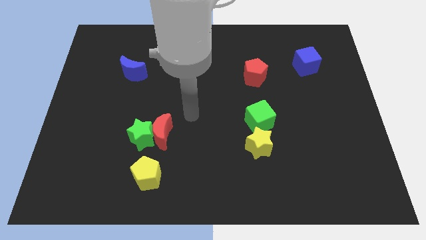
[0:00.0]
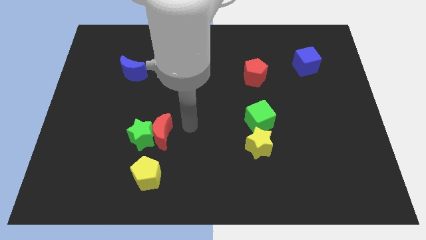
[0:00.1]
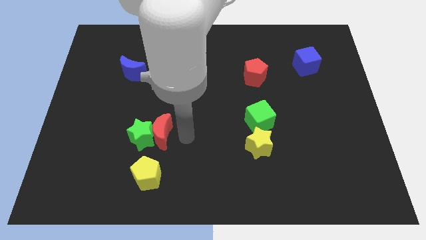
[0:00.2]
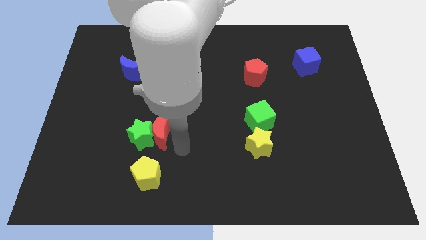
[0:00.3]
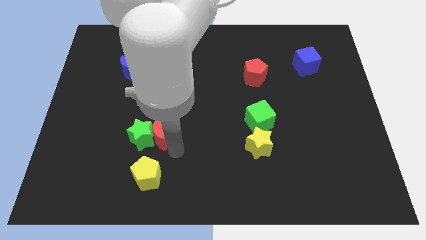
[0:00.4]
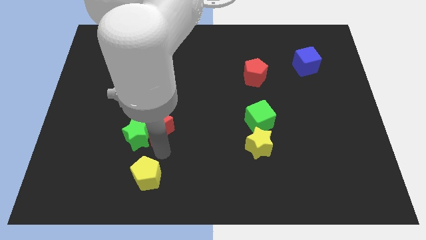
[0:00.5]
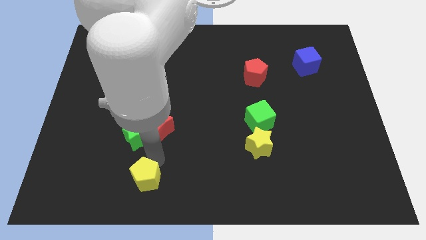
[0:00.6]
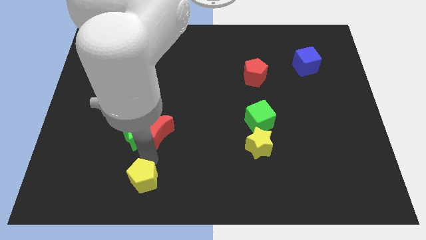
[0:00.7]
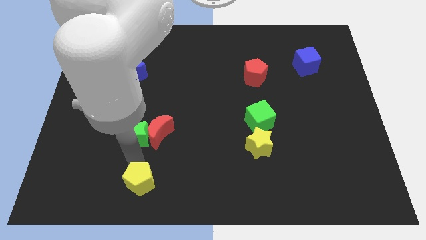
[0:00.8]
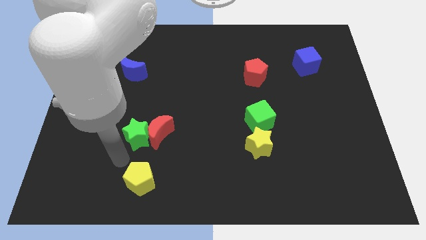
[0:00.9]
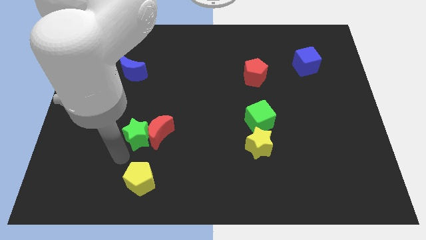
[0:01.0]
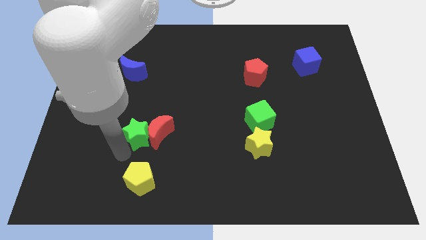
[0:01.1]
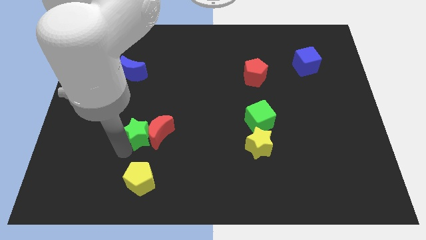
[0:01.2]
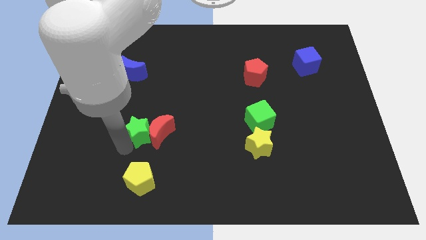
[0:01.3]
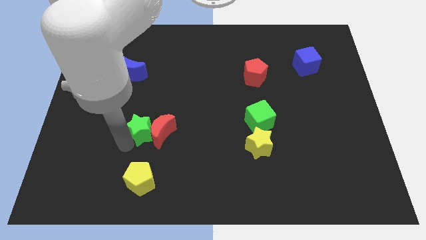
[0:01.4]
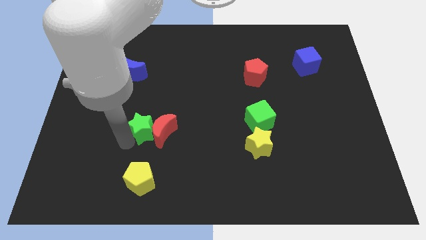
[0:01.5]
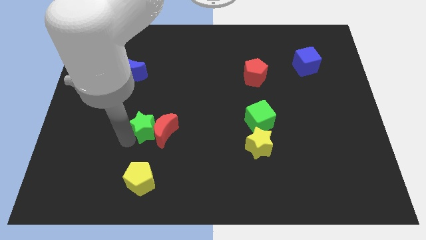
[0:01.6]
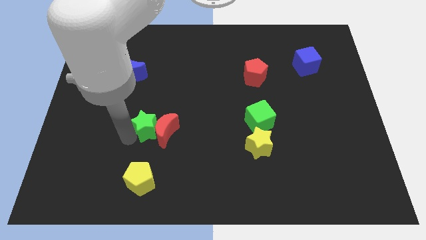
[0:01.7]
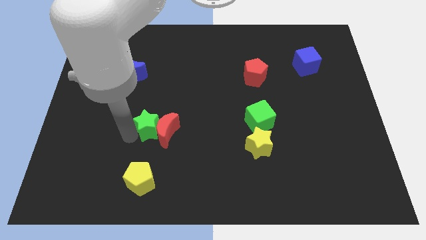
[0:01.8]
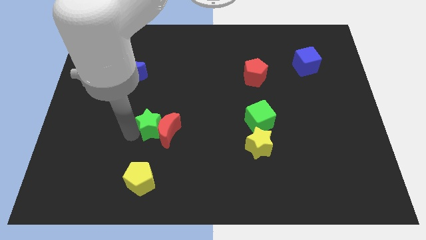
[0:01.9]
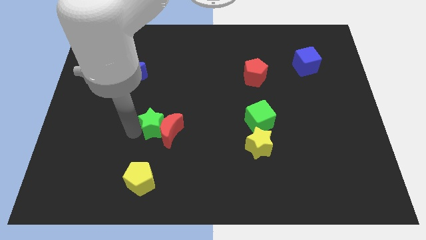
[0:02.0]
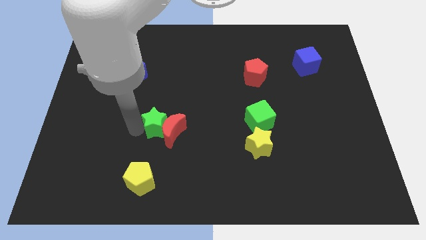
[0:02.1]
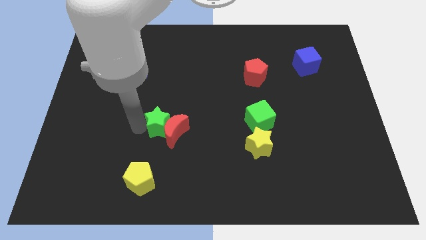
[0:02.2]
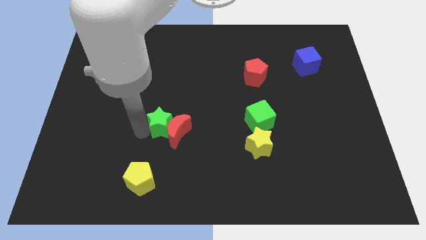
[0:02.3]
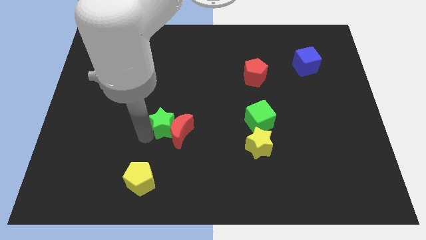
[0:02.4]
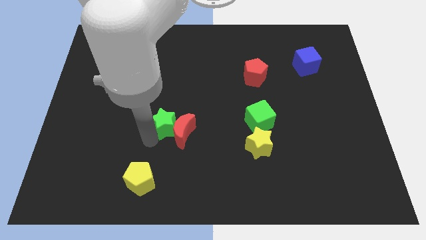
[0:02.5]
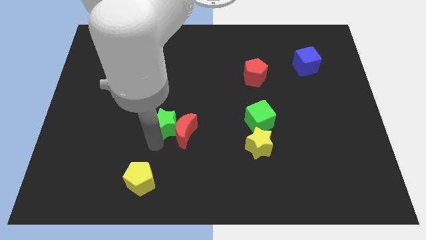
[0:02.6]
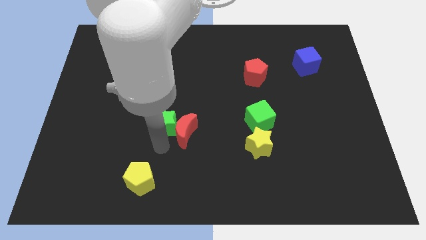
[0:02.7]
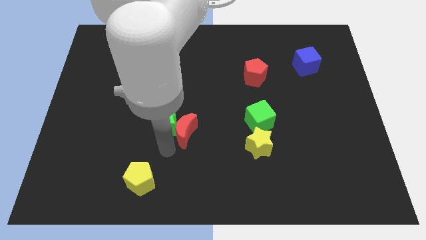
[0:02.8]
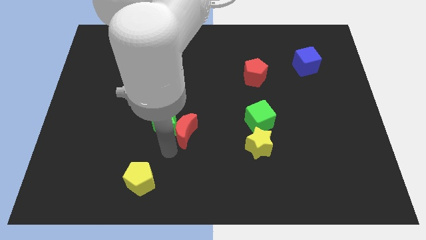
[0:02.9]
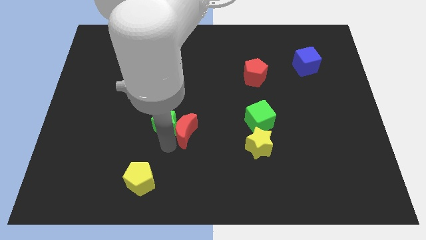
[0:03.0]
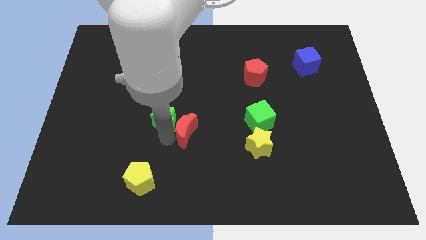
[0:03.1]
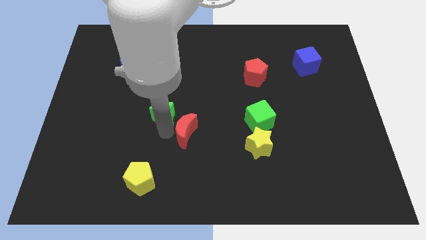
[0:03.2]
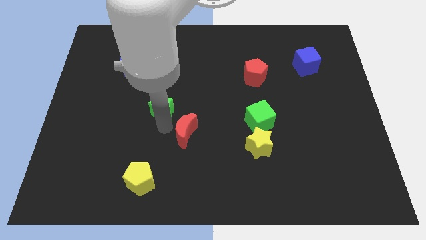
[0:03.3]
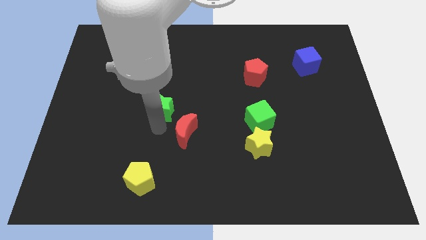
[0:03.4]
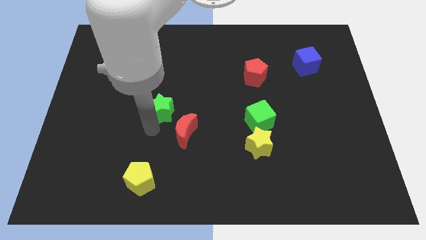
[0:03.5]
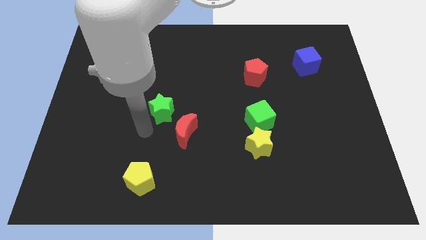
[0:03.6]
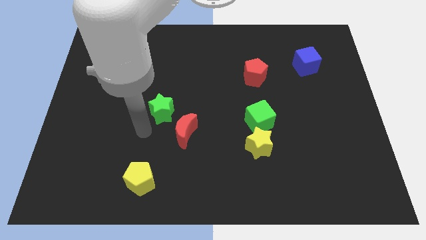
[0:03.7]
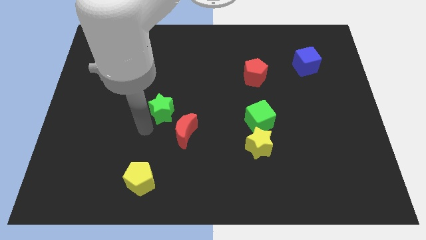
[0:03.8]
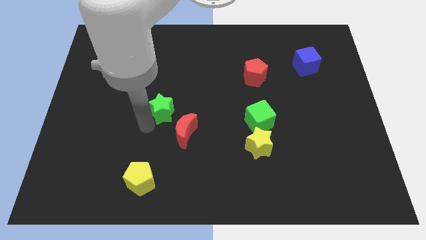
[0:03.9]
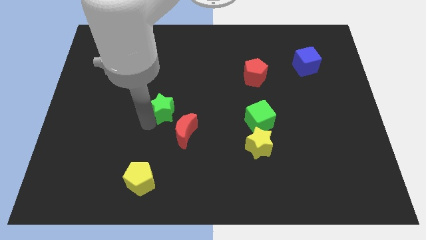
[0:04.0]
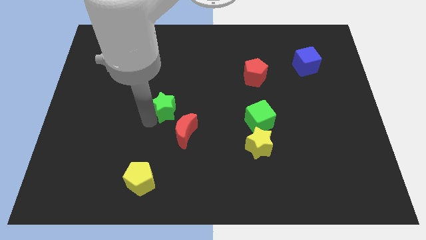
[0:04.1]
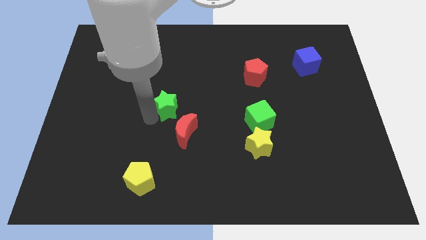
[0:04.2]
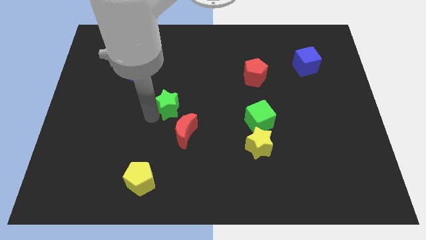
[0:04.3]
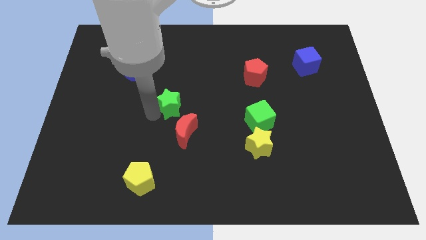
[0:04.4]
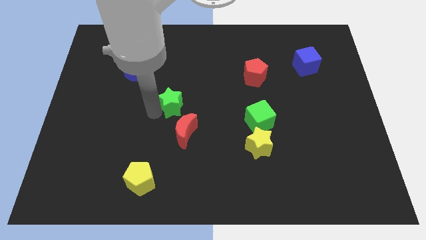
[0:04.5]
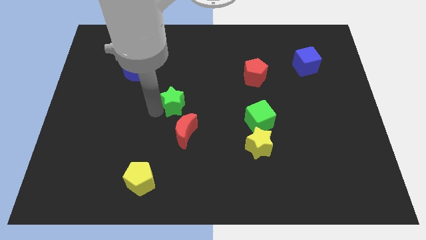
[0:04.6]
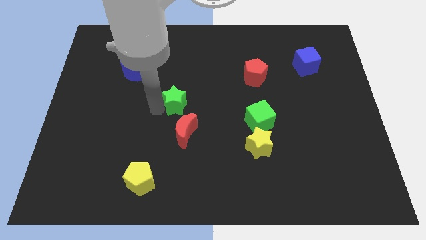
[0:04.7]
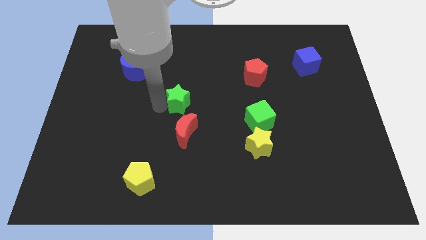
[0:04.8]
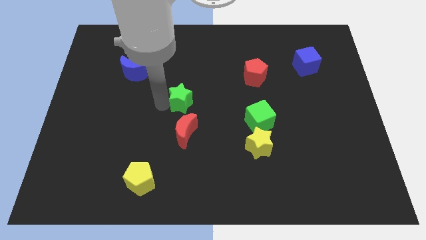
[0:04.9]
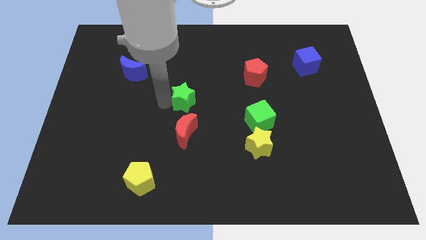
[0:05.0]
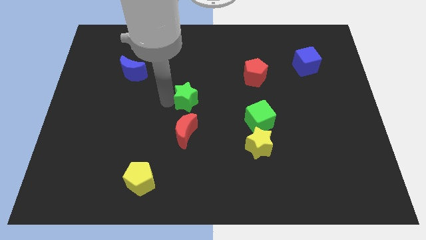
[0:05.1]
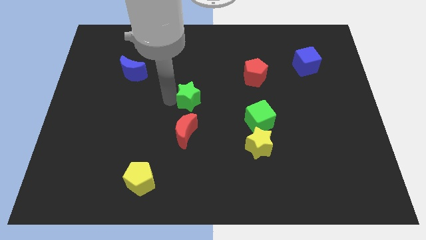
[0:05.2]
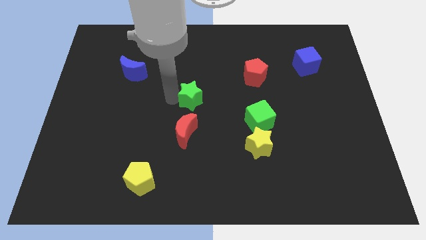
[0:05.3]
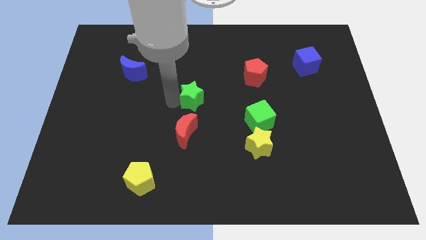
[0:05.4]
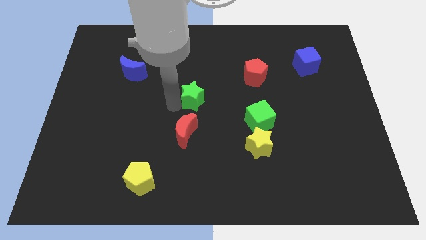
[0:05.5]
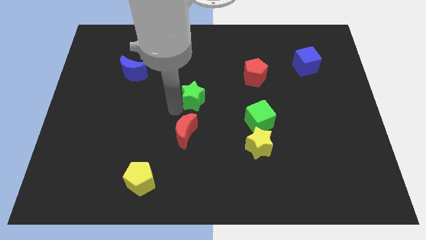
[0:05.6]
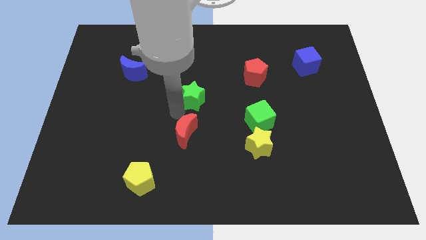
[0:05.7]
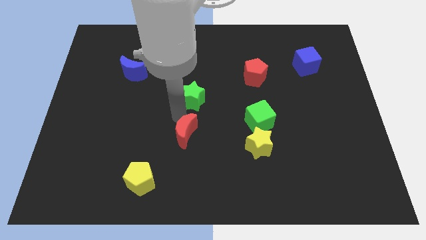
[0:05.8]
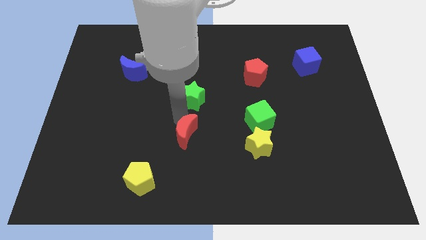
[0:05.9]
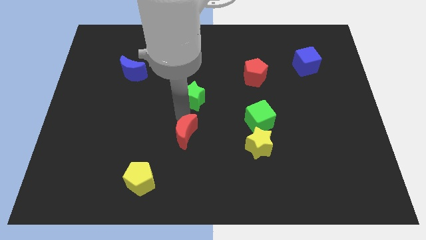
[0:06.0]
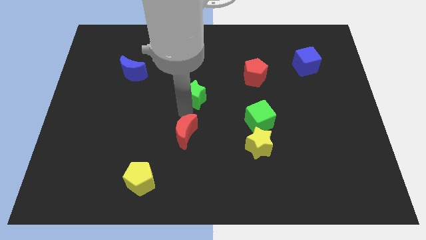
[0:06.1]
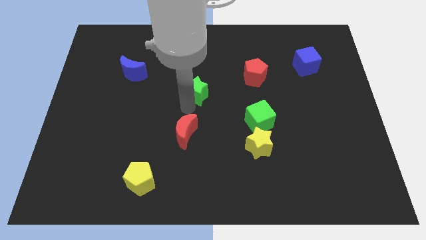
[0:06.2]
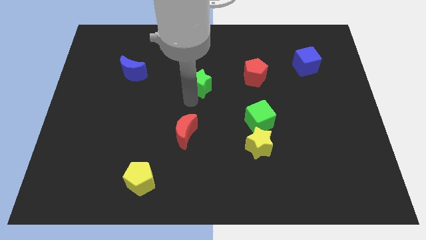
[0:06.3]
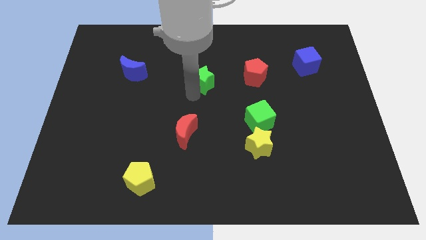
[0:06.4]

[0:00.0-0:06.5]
push the green star diagonally up and right

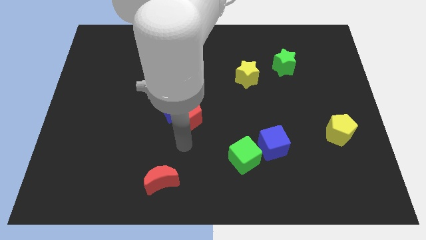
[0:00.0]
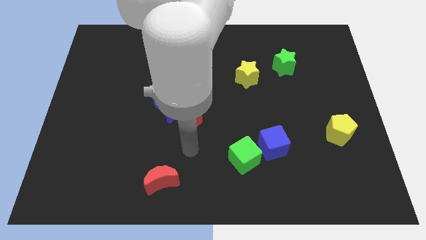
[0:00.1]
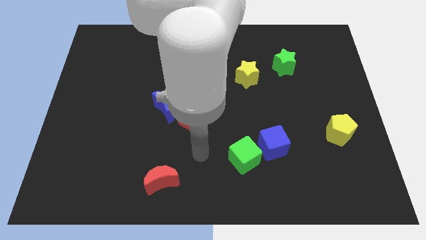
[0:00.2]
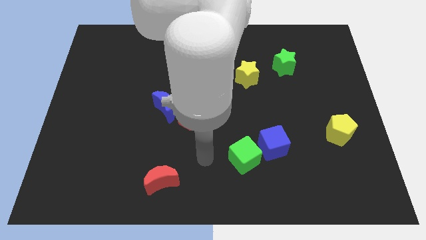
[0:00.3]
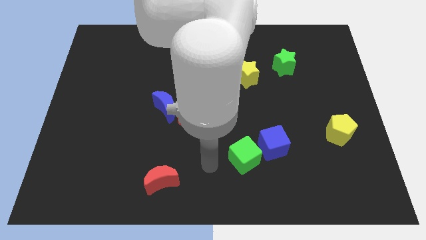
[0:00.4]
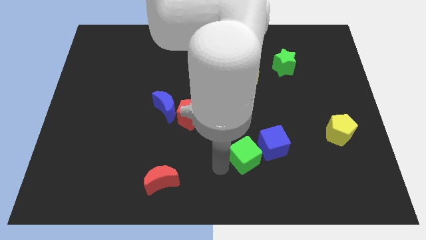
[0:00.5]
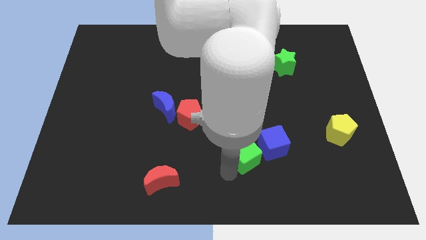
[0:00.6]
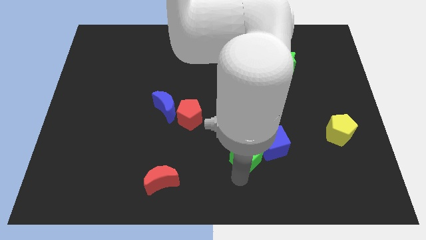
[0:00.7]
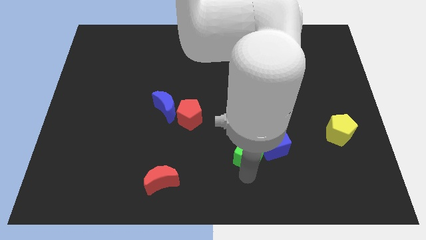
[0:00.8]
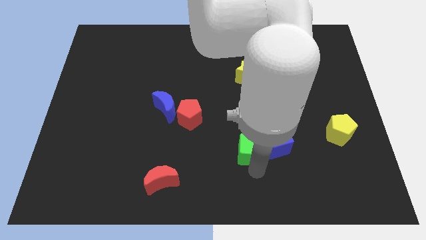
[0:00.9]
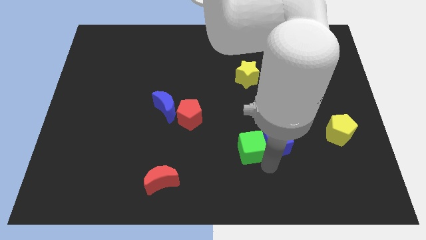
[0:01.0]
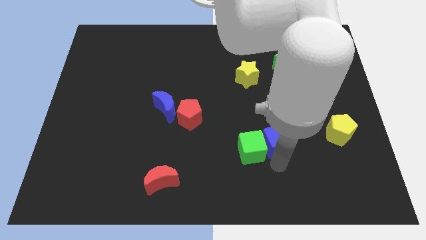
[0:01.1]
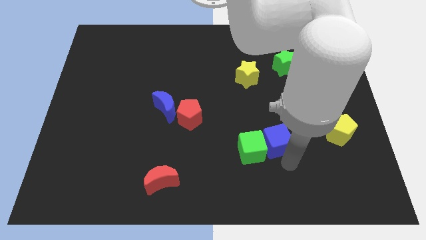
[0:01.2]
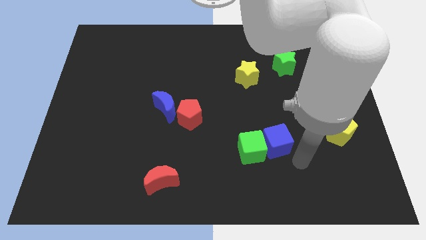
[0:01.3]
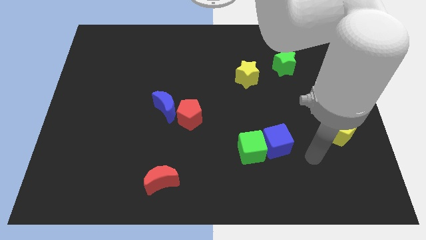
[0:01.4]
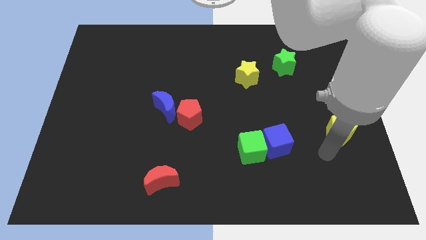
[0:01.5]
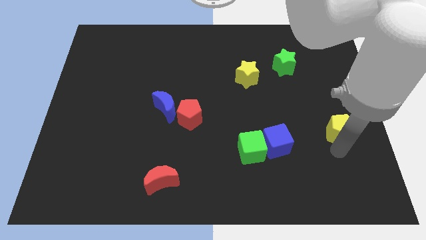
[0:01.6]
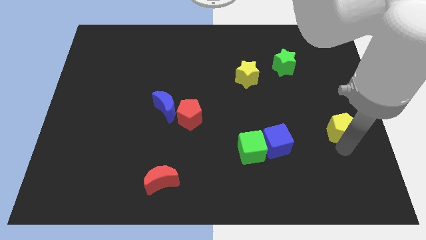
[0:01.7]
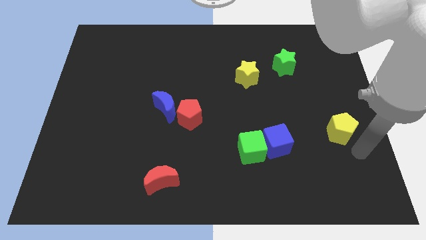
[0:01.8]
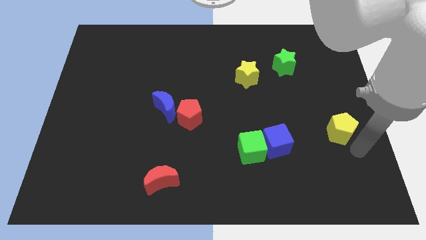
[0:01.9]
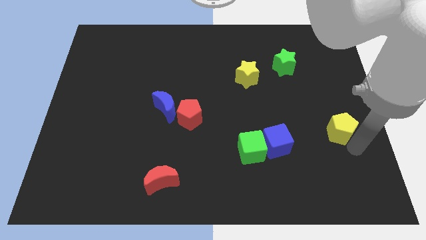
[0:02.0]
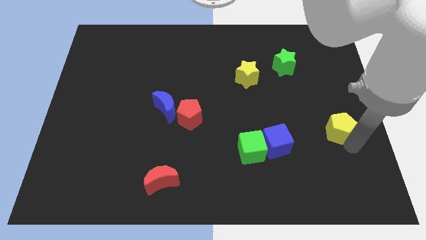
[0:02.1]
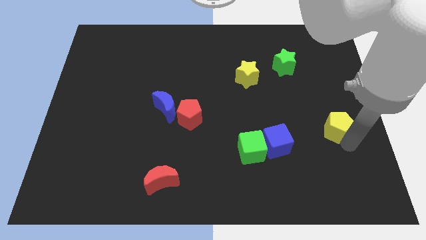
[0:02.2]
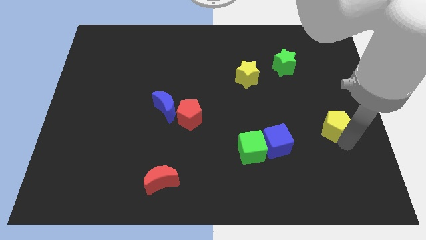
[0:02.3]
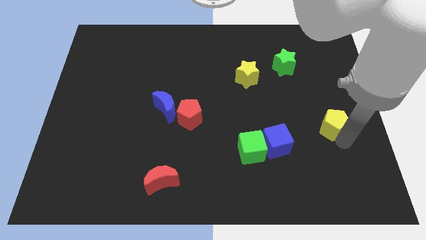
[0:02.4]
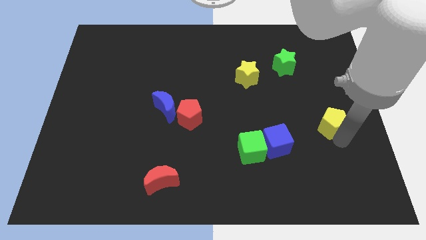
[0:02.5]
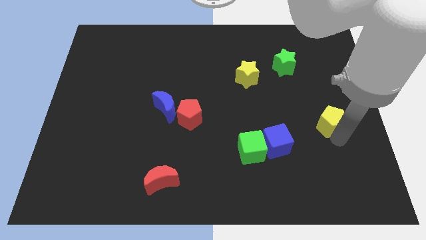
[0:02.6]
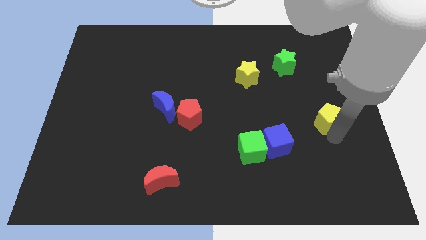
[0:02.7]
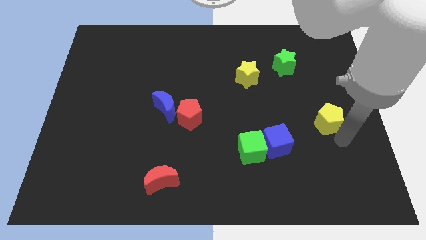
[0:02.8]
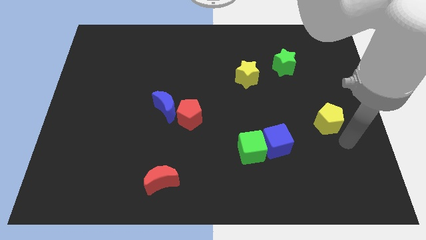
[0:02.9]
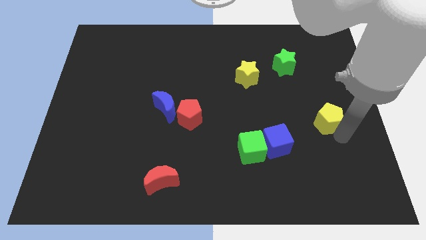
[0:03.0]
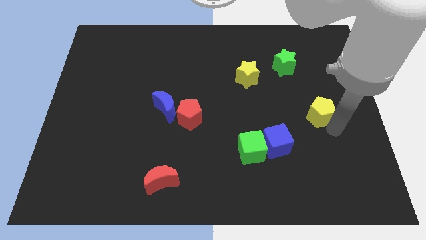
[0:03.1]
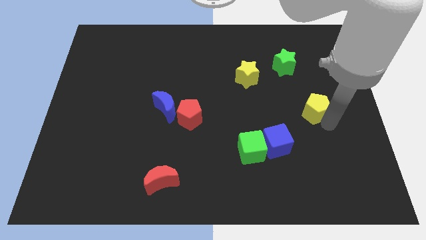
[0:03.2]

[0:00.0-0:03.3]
push the yellow pentagon up and to the left slightly
